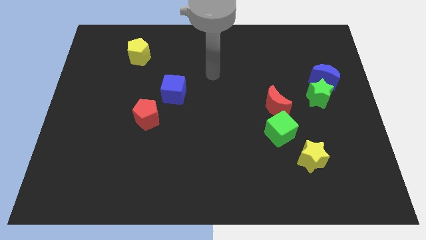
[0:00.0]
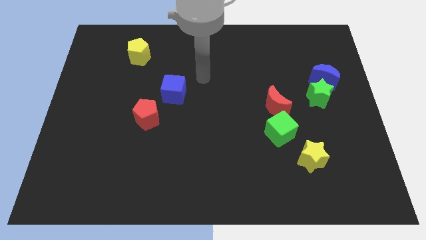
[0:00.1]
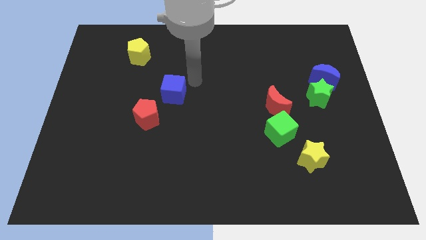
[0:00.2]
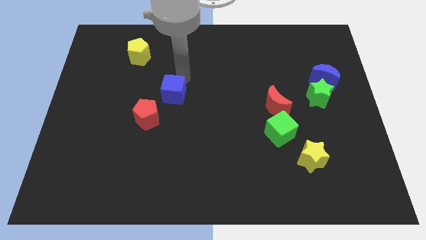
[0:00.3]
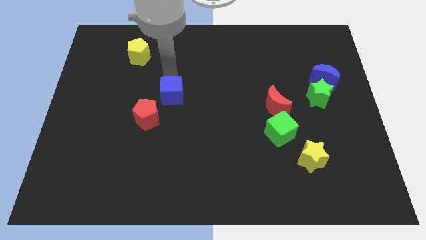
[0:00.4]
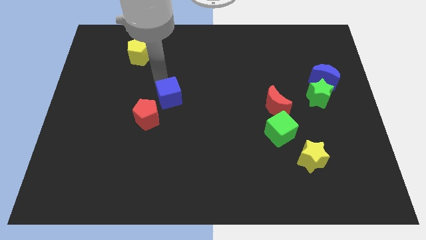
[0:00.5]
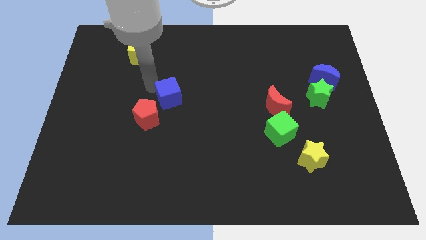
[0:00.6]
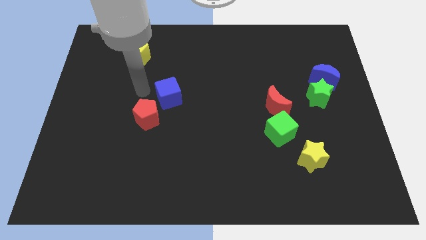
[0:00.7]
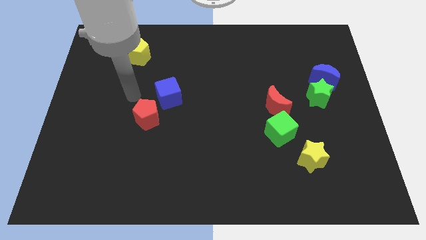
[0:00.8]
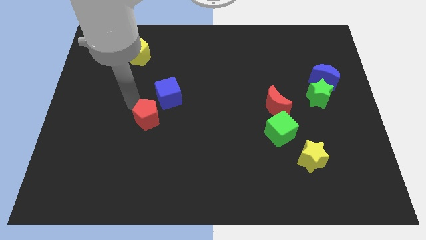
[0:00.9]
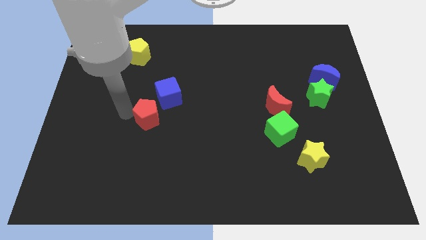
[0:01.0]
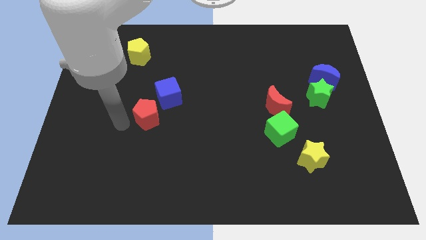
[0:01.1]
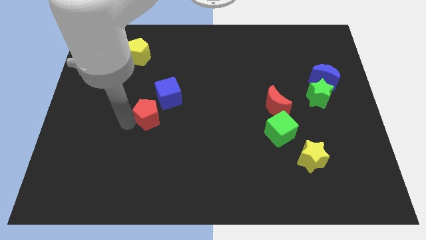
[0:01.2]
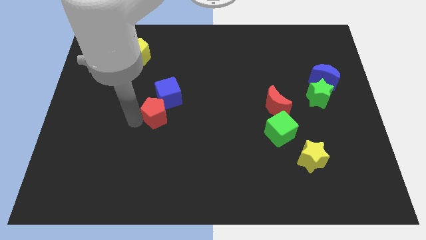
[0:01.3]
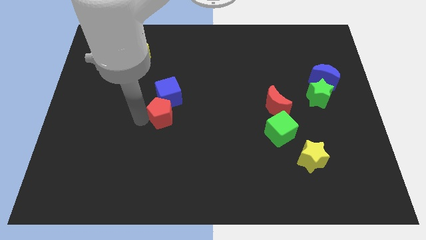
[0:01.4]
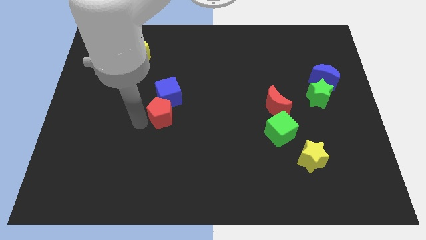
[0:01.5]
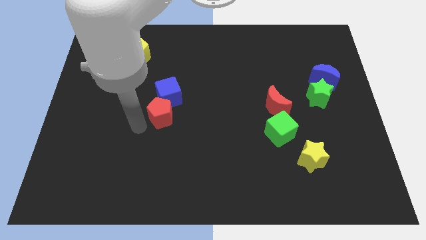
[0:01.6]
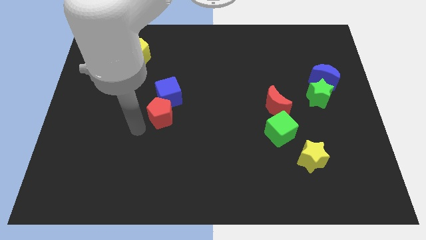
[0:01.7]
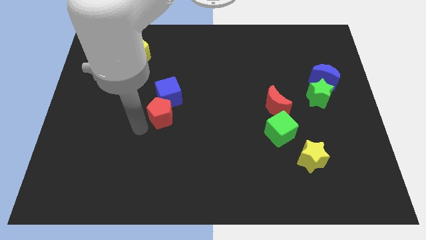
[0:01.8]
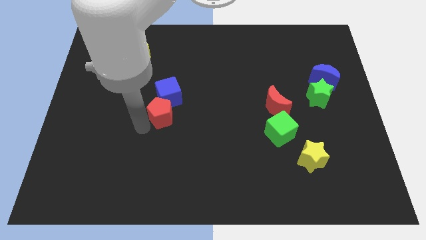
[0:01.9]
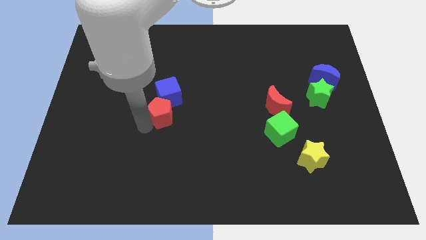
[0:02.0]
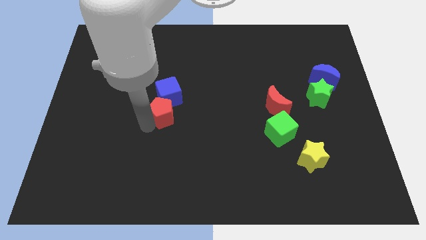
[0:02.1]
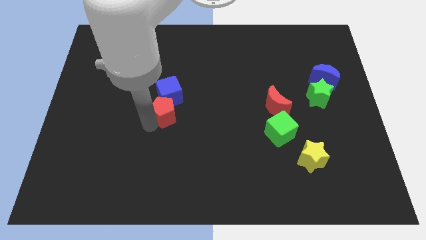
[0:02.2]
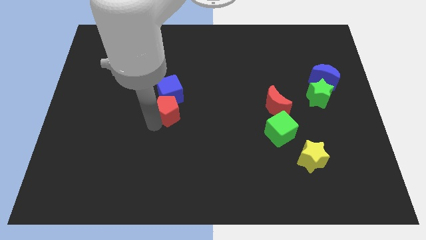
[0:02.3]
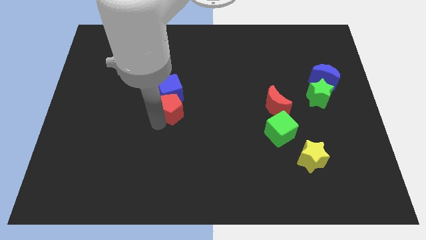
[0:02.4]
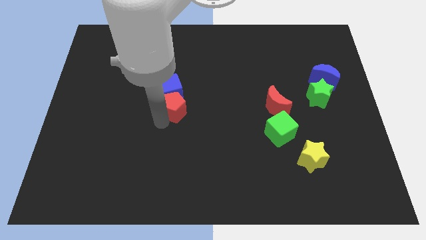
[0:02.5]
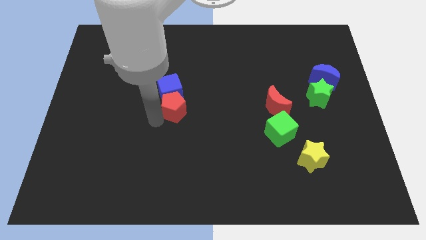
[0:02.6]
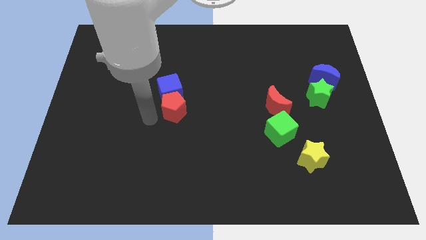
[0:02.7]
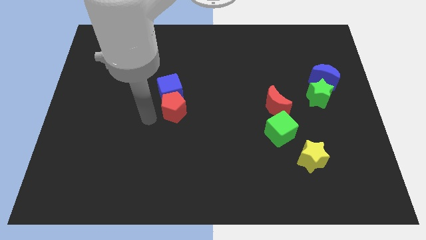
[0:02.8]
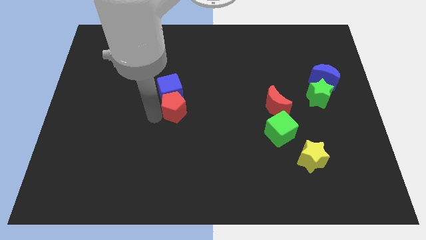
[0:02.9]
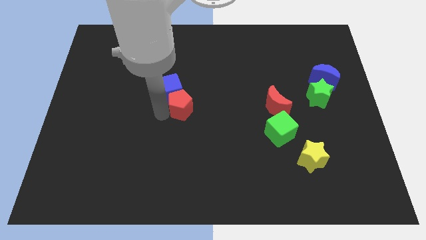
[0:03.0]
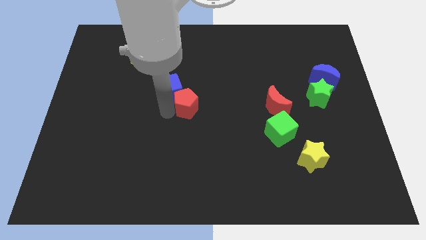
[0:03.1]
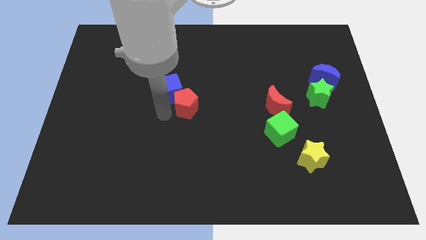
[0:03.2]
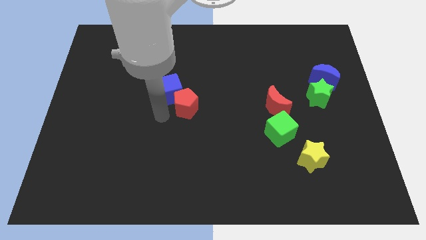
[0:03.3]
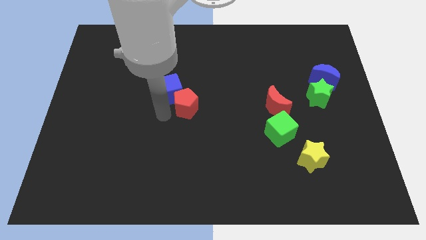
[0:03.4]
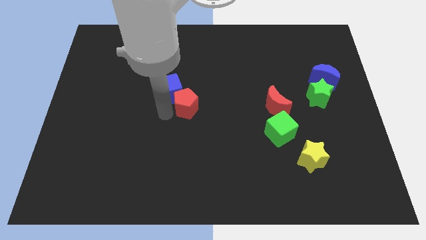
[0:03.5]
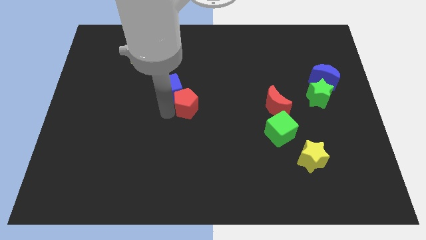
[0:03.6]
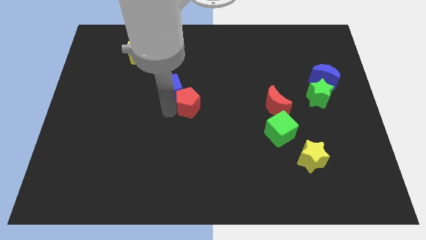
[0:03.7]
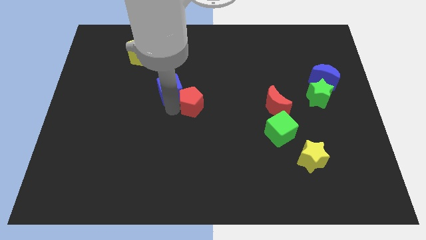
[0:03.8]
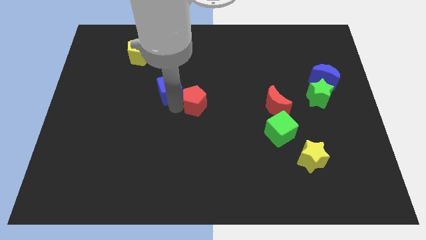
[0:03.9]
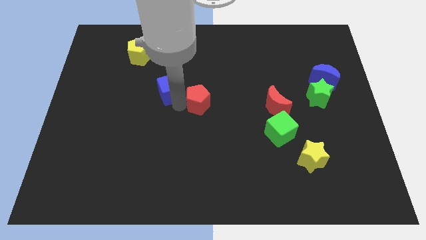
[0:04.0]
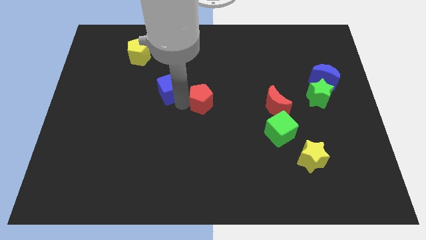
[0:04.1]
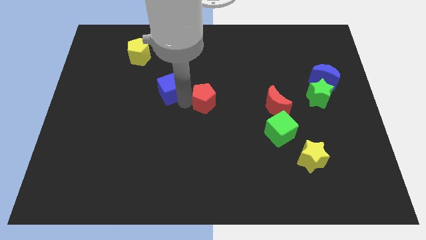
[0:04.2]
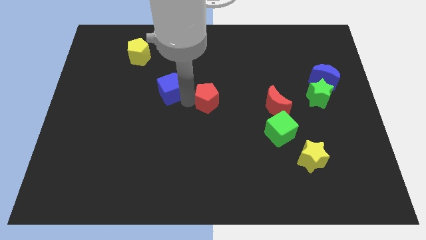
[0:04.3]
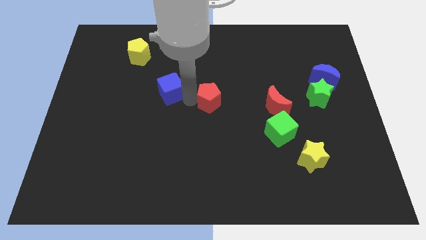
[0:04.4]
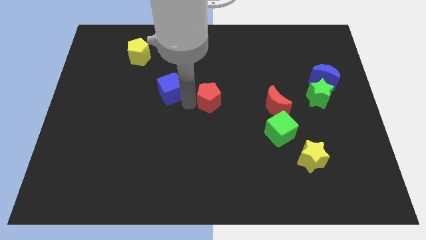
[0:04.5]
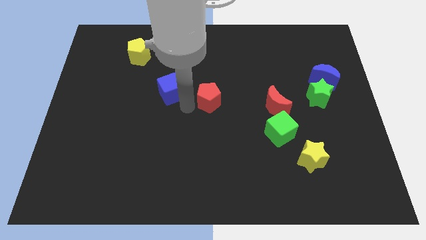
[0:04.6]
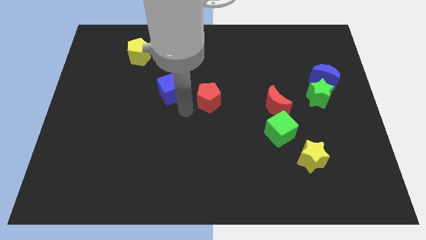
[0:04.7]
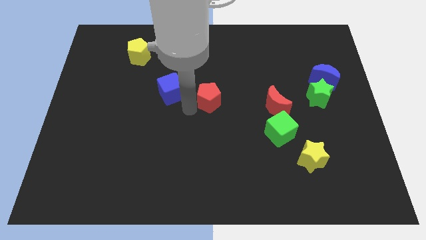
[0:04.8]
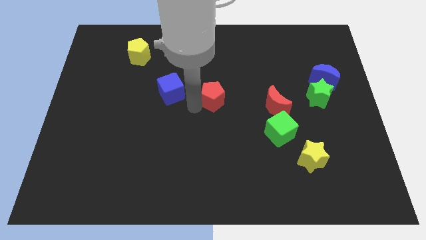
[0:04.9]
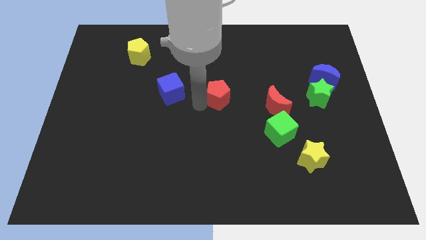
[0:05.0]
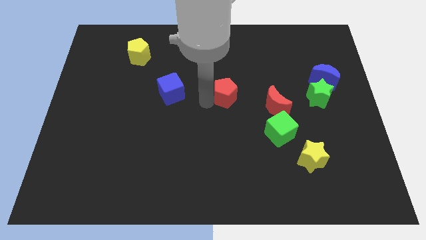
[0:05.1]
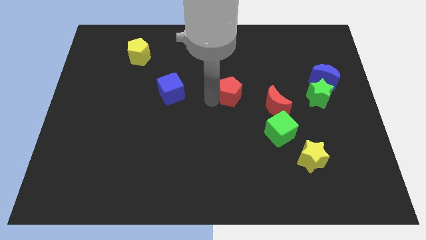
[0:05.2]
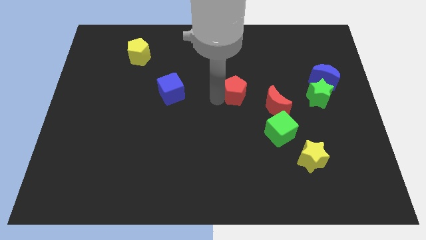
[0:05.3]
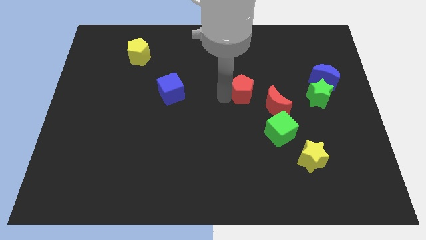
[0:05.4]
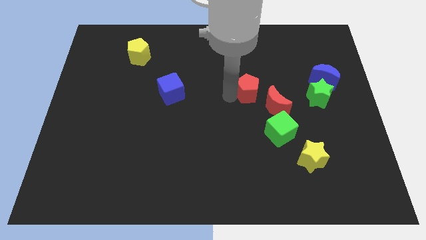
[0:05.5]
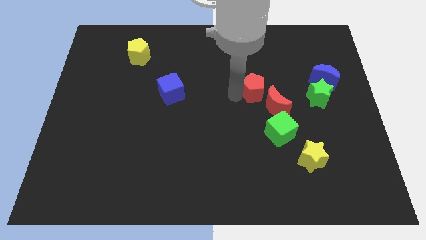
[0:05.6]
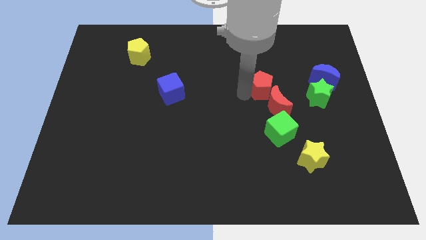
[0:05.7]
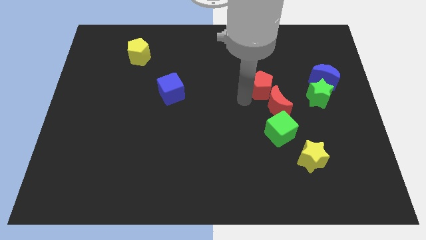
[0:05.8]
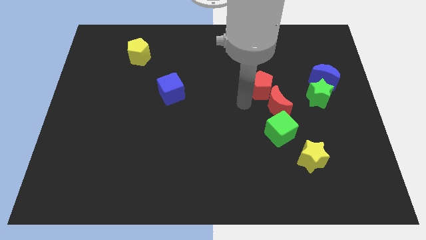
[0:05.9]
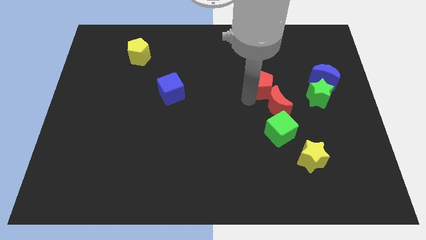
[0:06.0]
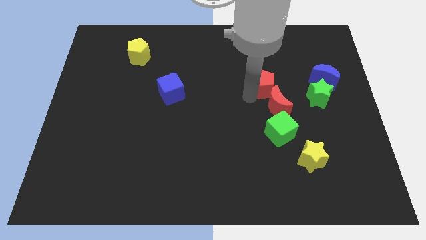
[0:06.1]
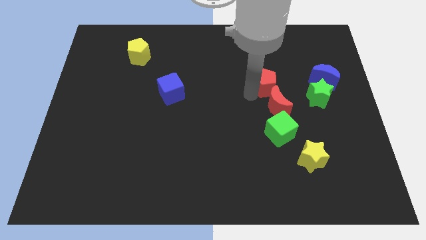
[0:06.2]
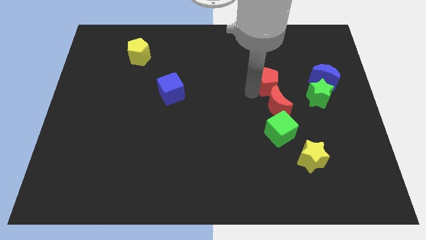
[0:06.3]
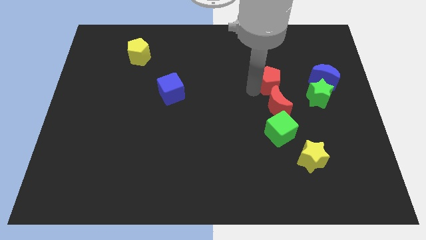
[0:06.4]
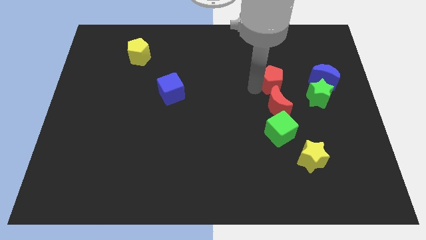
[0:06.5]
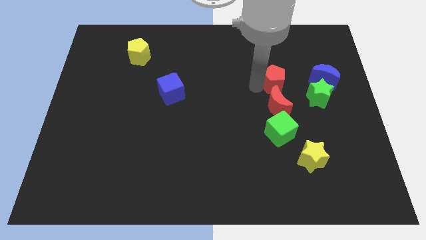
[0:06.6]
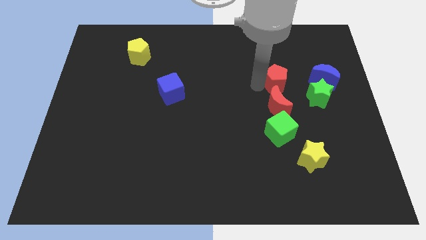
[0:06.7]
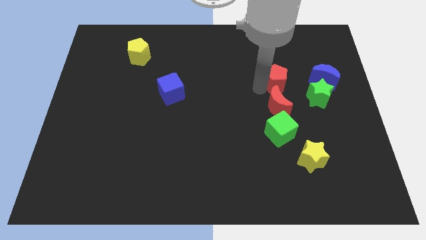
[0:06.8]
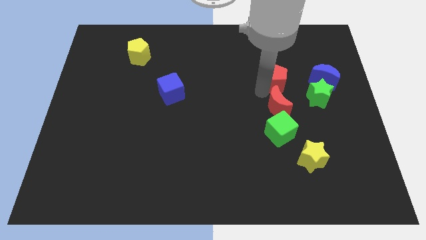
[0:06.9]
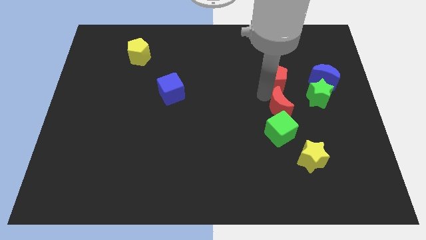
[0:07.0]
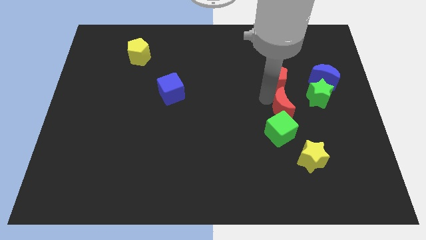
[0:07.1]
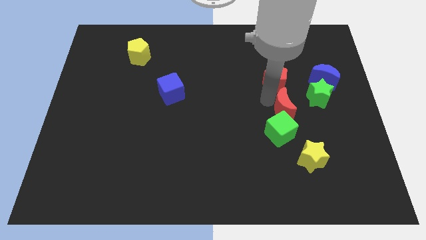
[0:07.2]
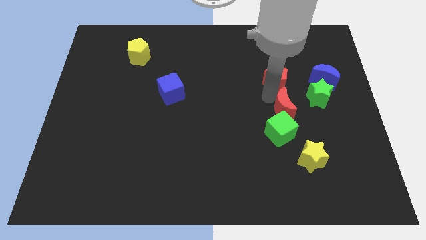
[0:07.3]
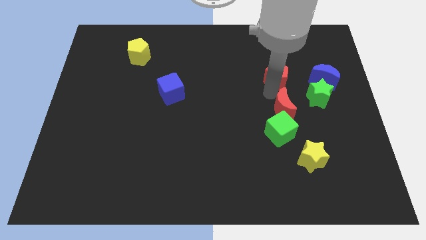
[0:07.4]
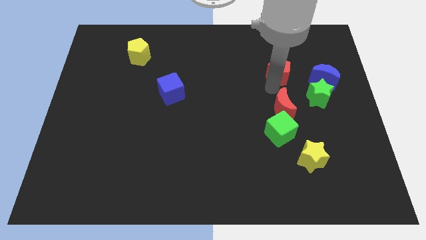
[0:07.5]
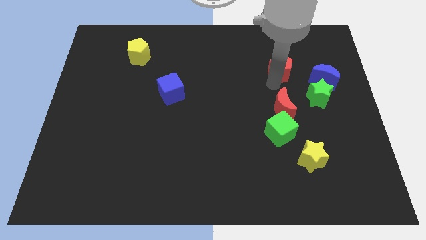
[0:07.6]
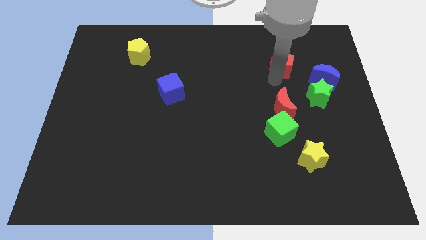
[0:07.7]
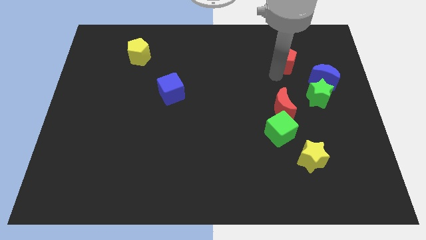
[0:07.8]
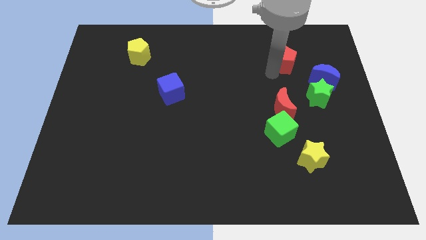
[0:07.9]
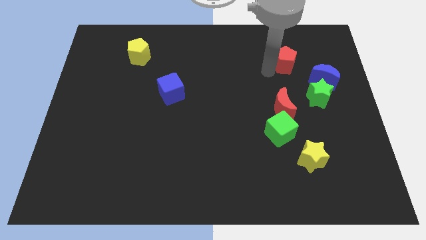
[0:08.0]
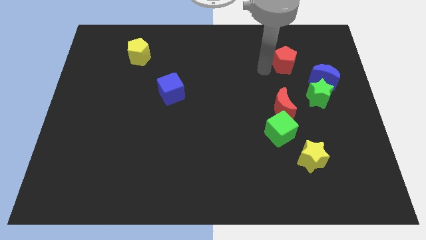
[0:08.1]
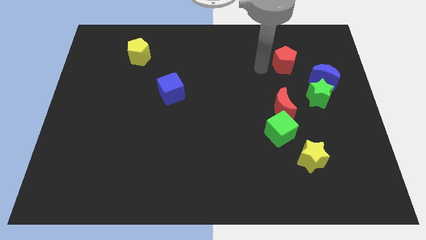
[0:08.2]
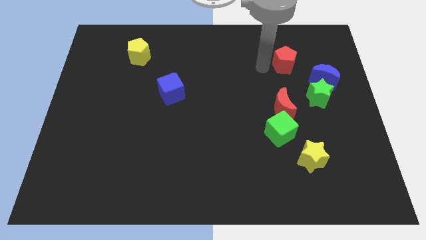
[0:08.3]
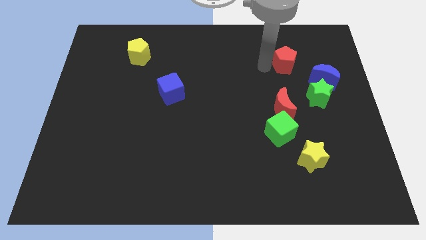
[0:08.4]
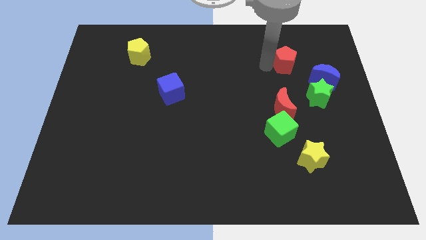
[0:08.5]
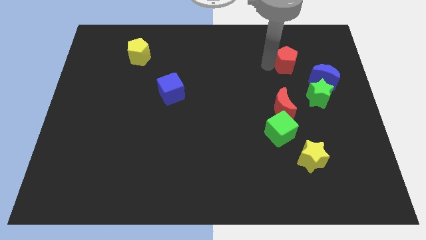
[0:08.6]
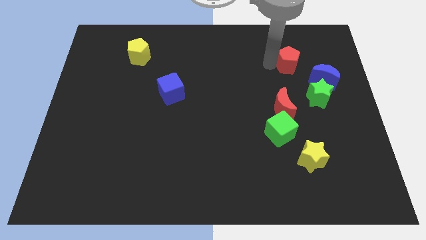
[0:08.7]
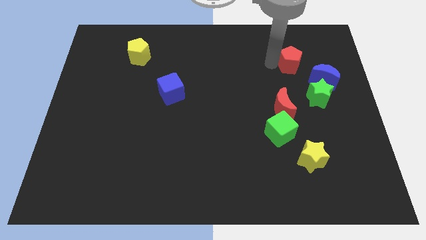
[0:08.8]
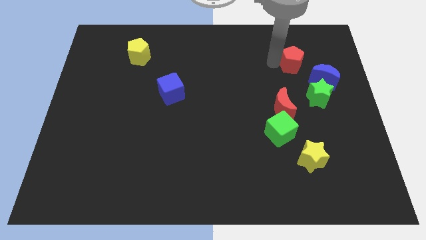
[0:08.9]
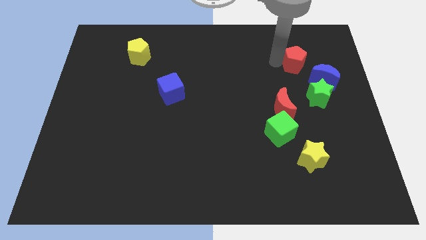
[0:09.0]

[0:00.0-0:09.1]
slide the red pentagon above the green star
